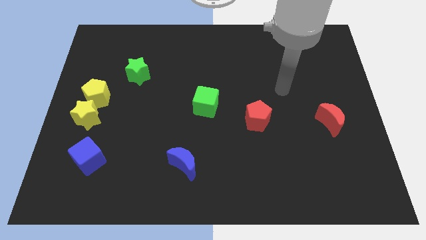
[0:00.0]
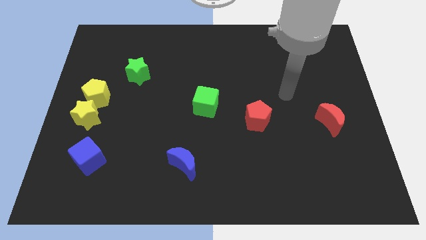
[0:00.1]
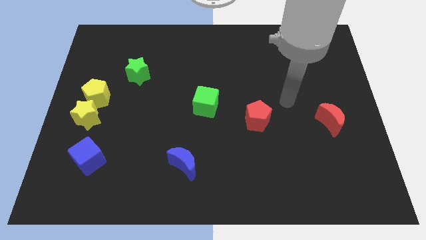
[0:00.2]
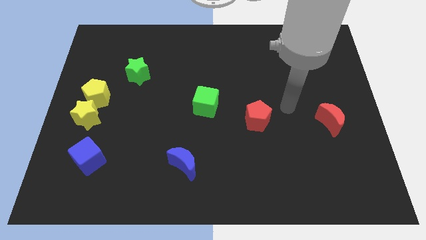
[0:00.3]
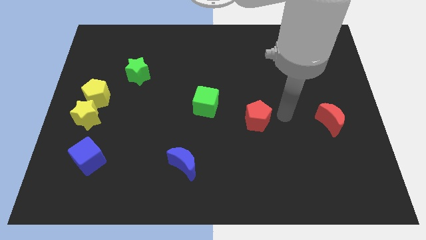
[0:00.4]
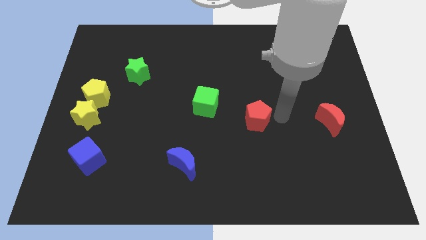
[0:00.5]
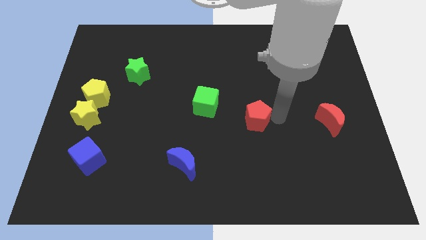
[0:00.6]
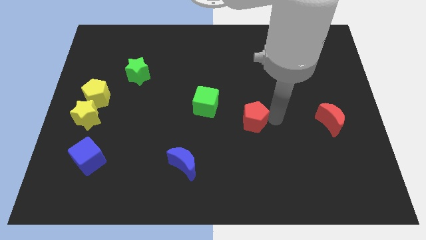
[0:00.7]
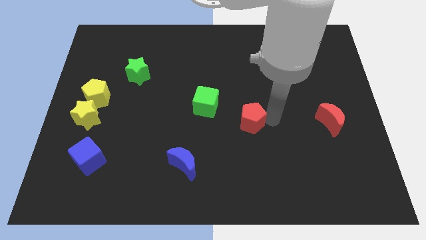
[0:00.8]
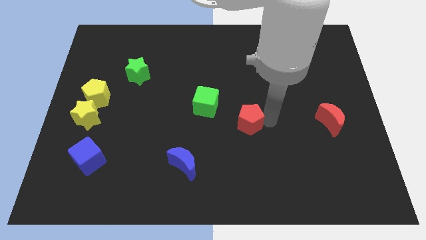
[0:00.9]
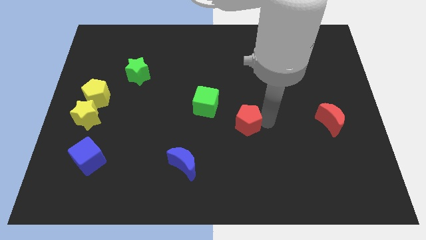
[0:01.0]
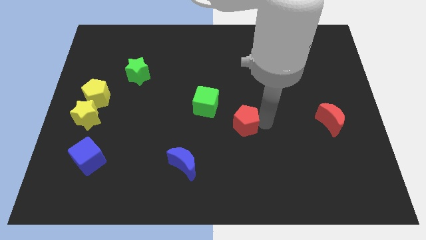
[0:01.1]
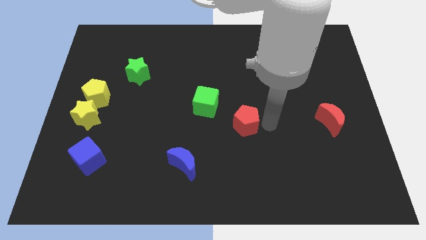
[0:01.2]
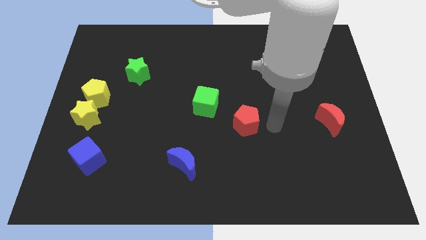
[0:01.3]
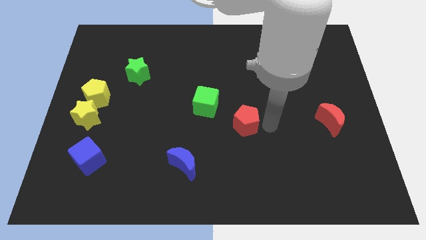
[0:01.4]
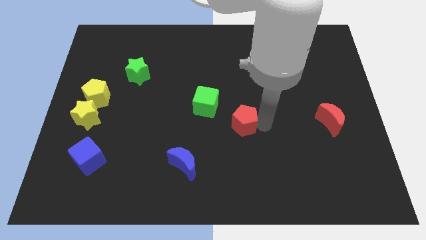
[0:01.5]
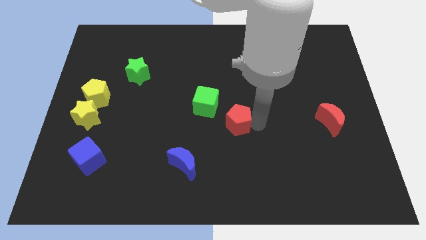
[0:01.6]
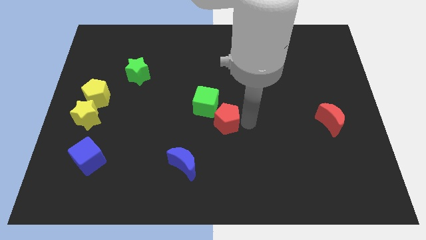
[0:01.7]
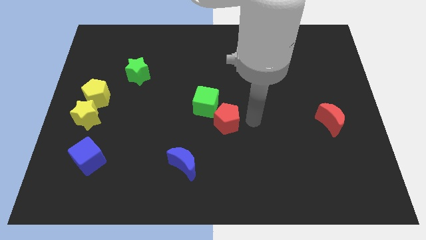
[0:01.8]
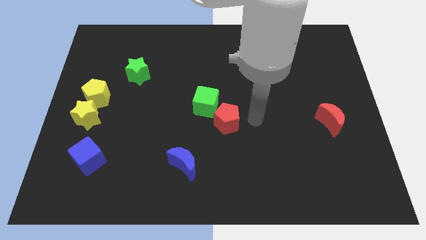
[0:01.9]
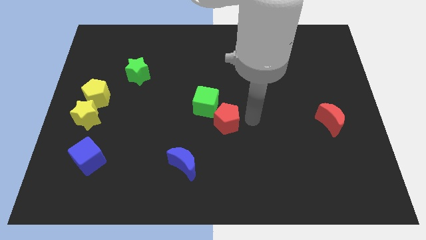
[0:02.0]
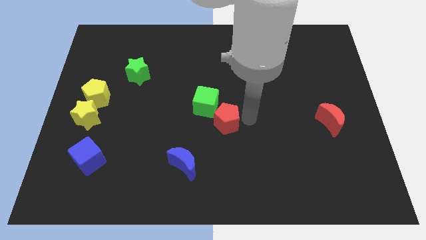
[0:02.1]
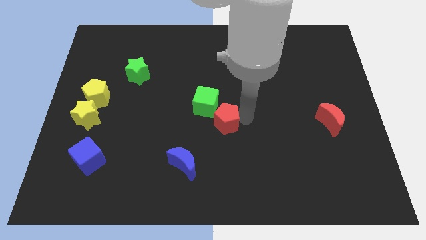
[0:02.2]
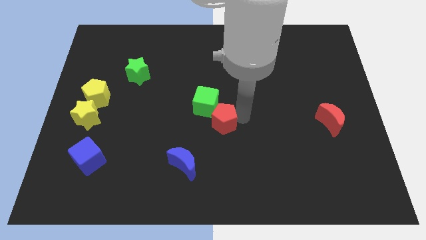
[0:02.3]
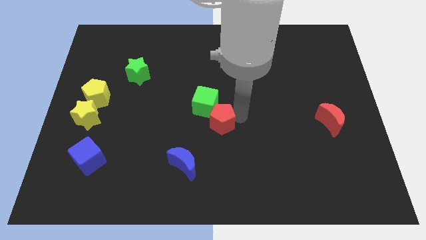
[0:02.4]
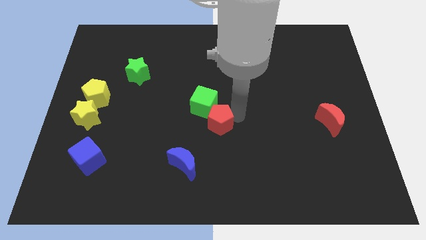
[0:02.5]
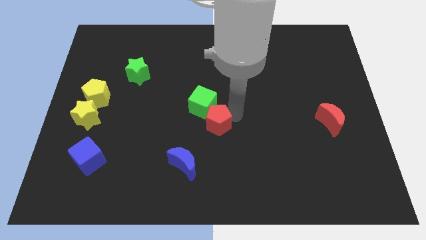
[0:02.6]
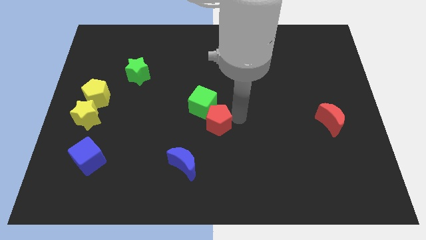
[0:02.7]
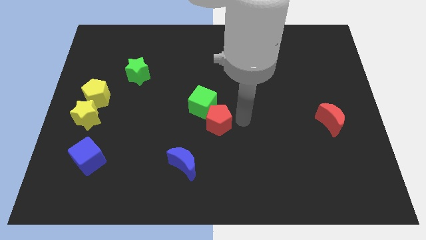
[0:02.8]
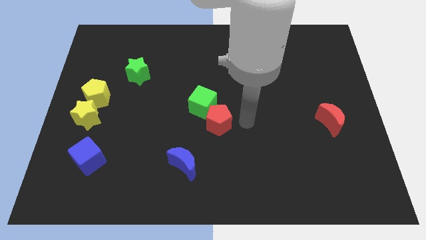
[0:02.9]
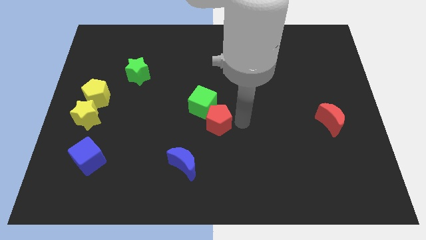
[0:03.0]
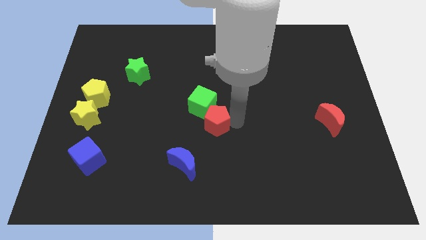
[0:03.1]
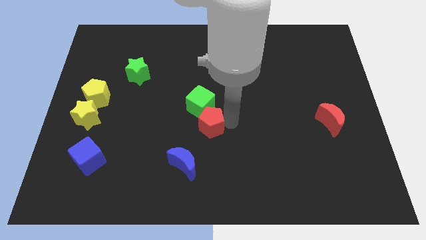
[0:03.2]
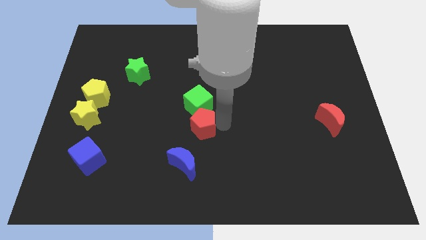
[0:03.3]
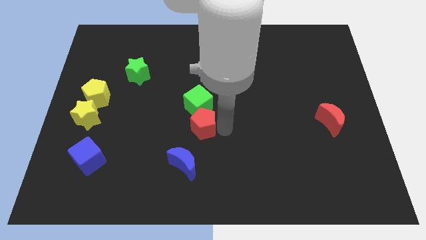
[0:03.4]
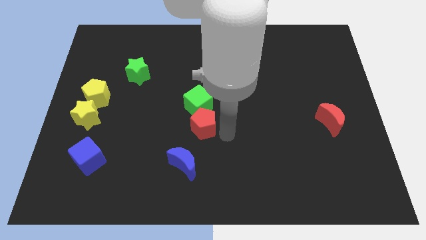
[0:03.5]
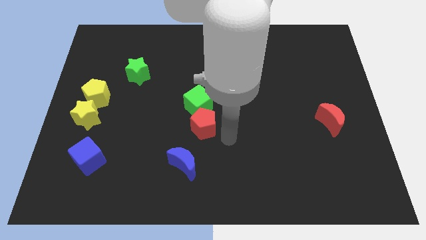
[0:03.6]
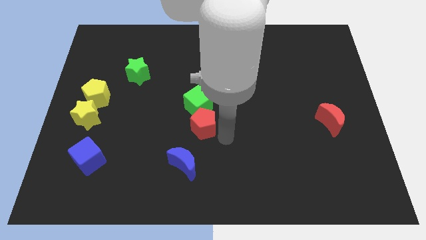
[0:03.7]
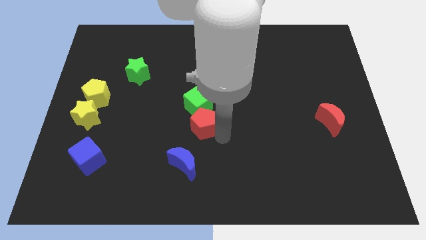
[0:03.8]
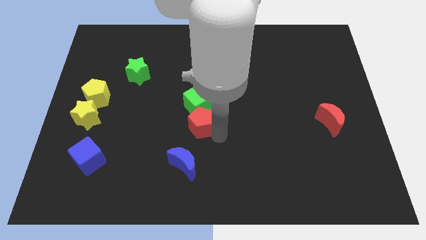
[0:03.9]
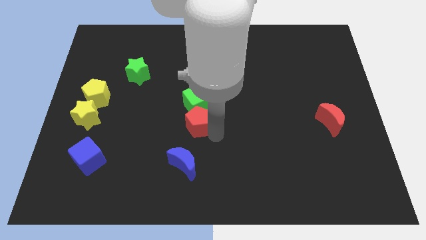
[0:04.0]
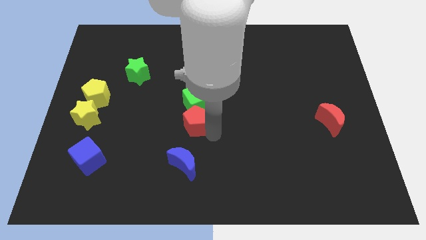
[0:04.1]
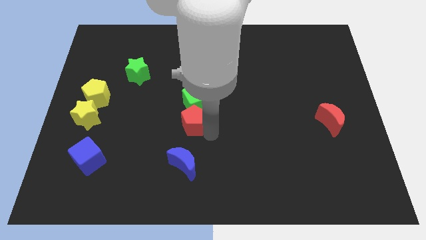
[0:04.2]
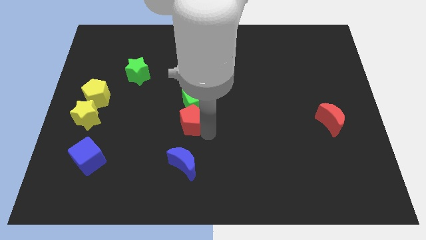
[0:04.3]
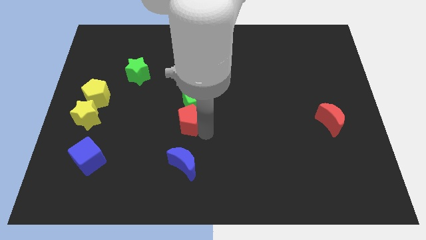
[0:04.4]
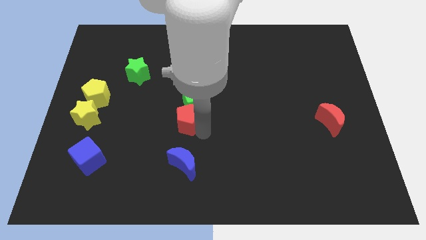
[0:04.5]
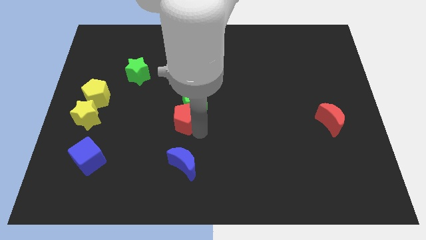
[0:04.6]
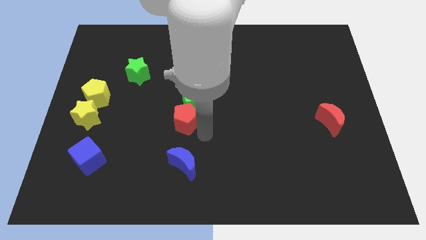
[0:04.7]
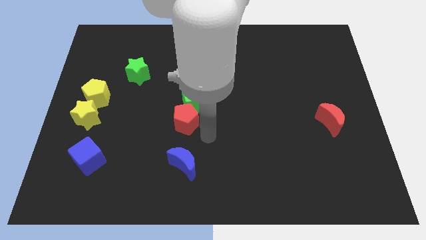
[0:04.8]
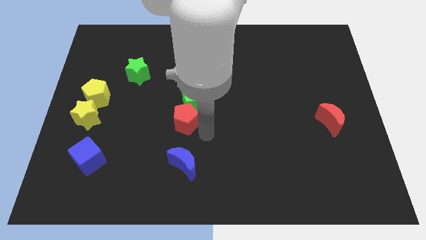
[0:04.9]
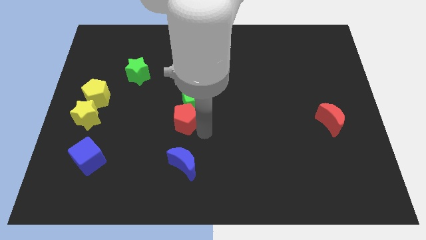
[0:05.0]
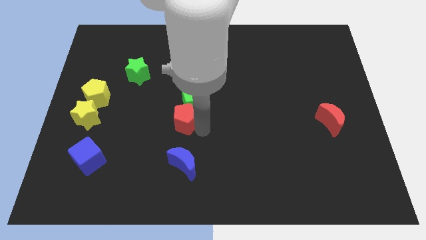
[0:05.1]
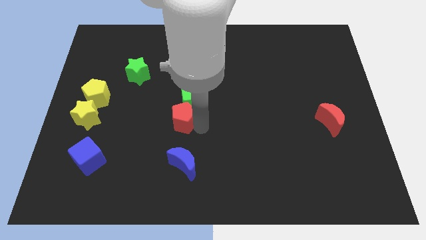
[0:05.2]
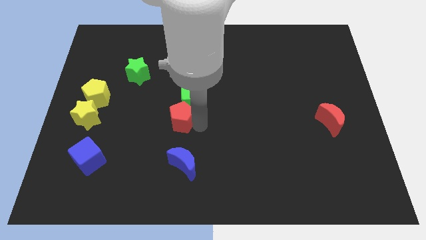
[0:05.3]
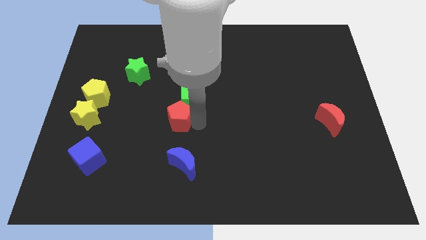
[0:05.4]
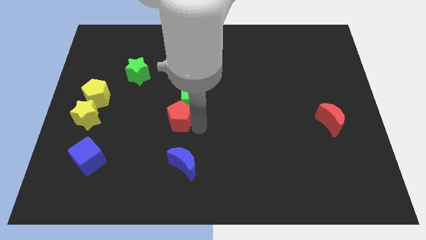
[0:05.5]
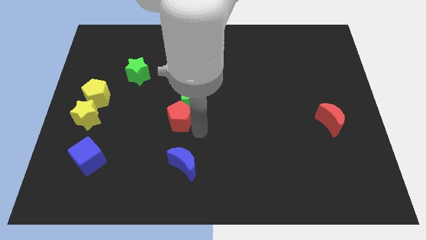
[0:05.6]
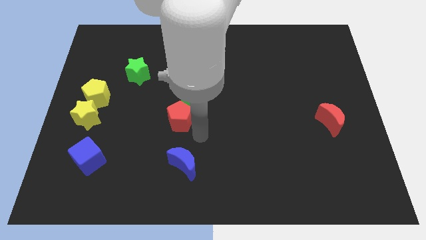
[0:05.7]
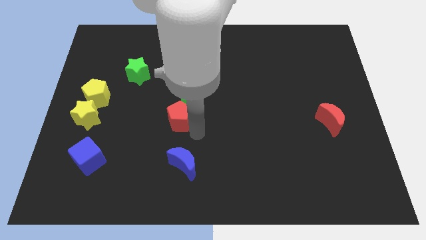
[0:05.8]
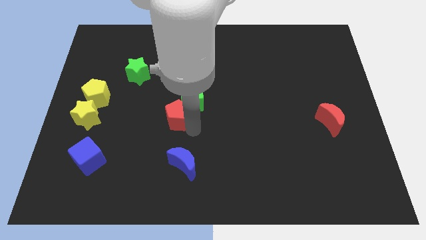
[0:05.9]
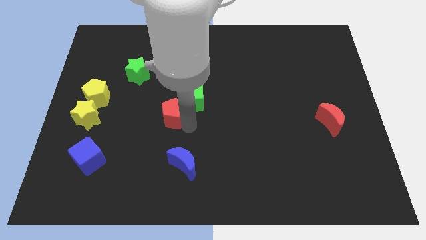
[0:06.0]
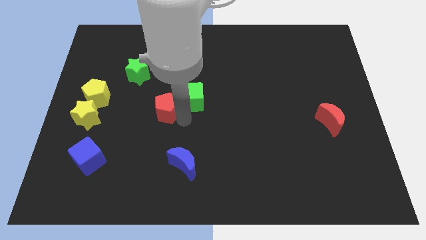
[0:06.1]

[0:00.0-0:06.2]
move the red pentagon left

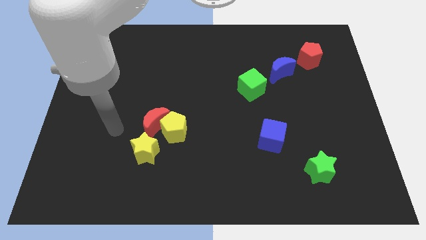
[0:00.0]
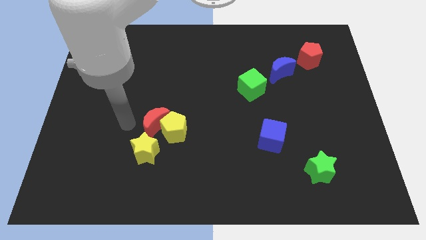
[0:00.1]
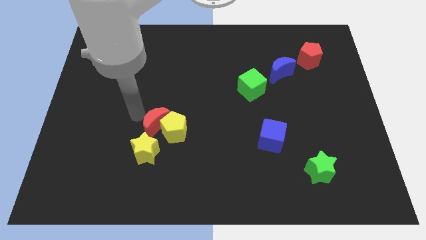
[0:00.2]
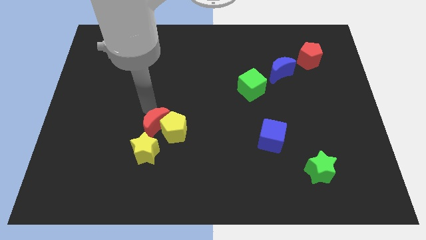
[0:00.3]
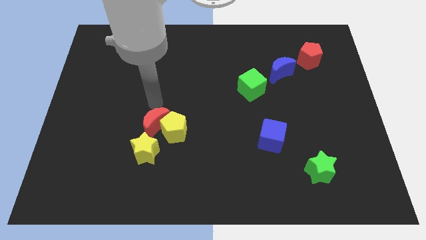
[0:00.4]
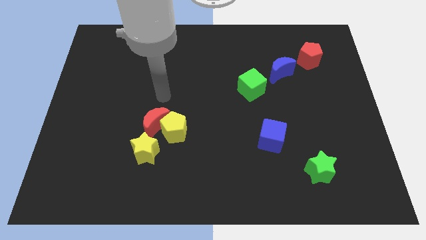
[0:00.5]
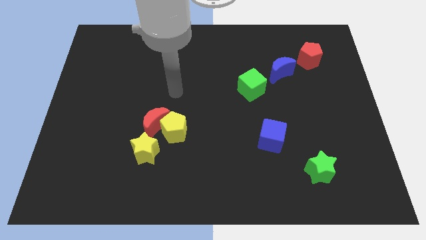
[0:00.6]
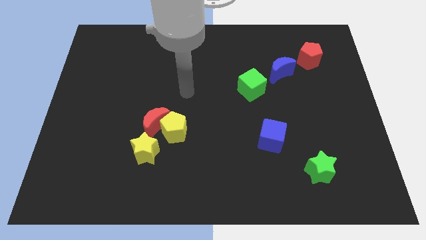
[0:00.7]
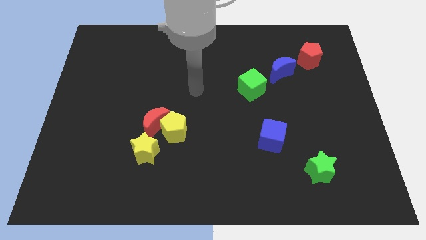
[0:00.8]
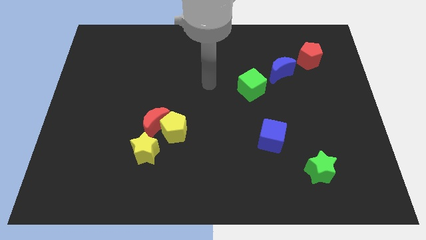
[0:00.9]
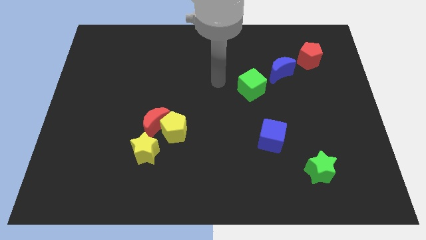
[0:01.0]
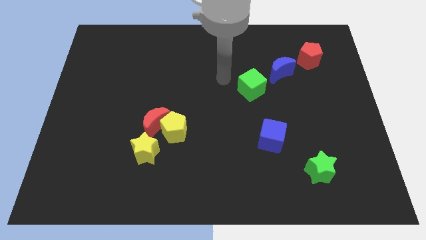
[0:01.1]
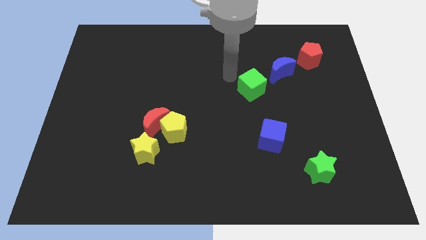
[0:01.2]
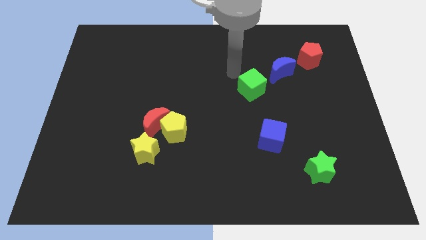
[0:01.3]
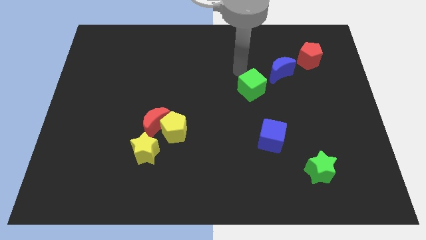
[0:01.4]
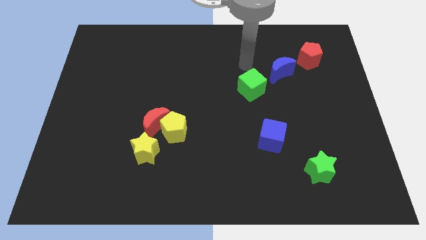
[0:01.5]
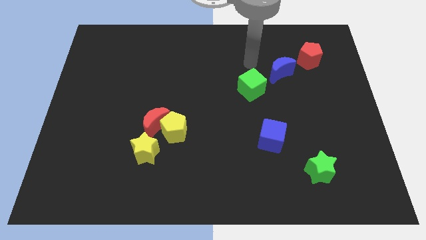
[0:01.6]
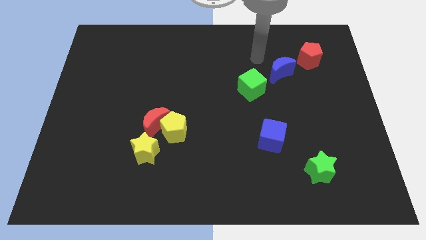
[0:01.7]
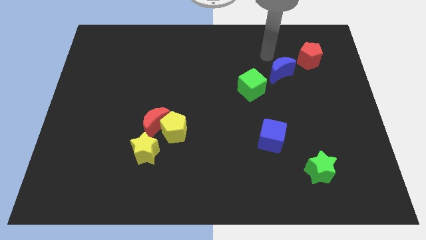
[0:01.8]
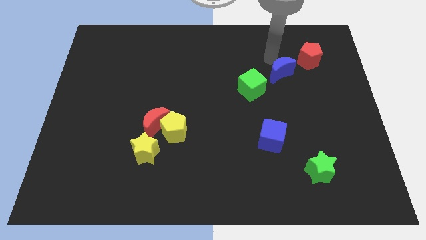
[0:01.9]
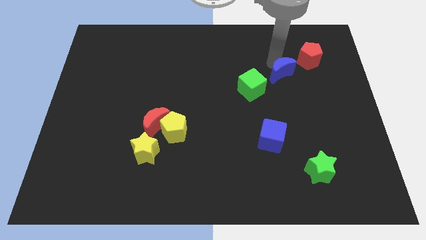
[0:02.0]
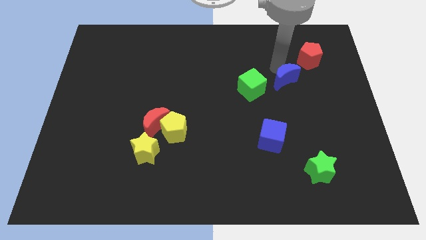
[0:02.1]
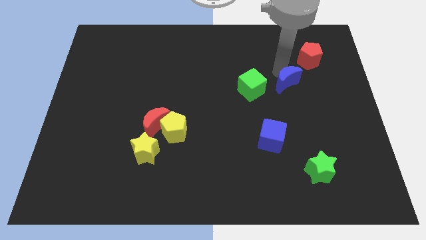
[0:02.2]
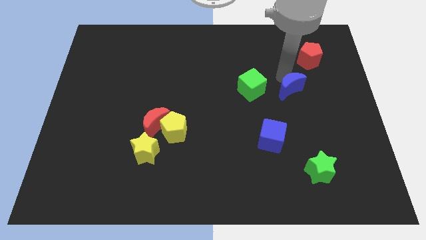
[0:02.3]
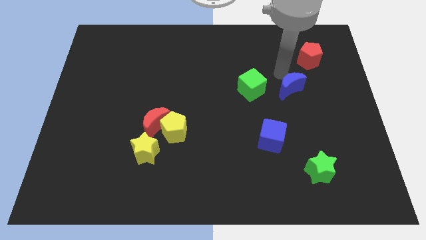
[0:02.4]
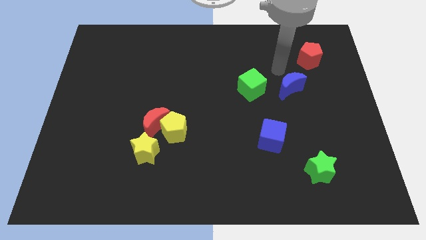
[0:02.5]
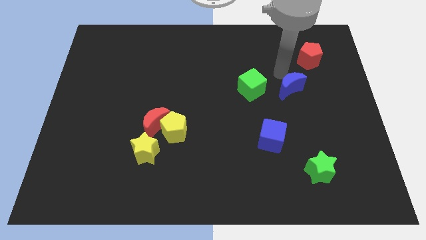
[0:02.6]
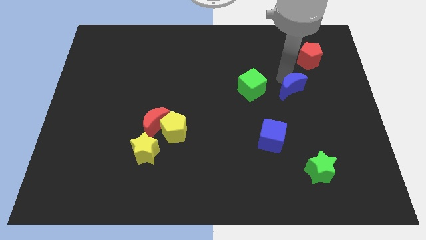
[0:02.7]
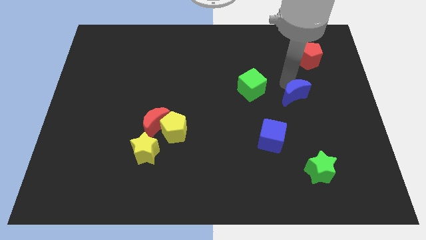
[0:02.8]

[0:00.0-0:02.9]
slide the blue moon somewhat down
